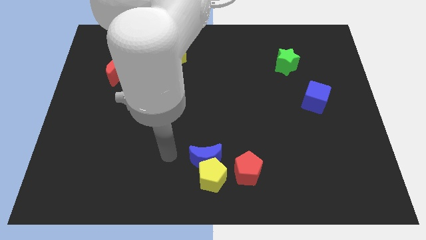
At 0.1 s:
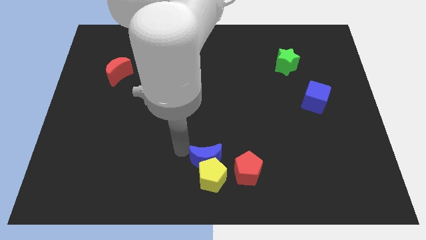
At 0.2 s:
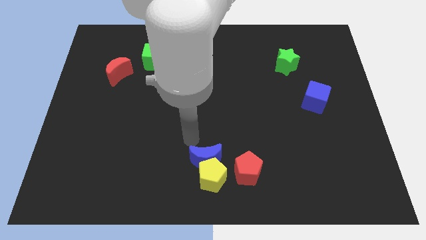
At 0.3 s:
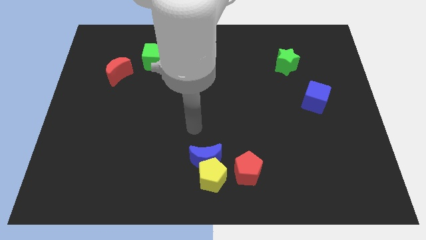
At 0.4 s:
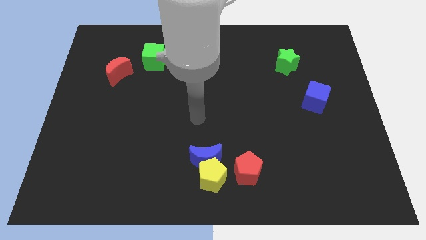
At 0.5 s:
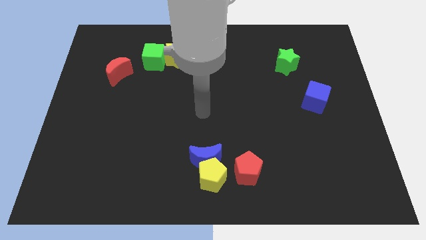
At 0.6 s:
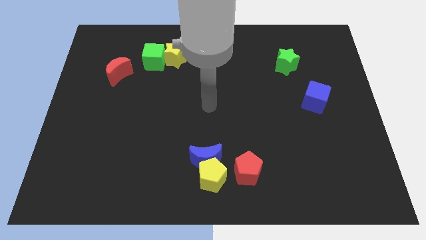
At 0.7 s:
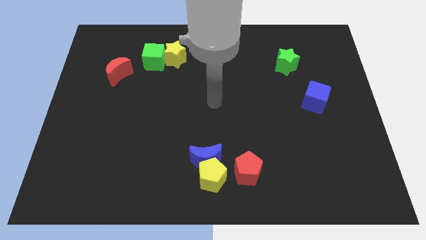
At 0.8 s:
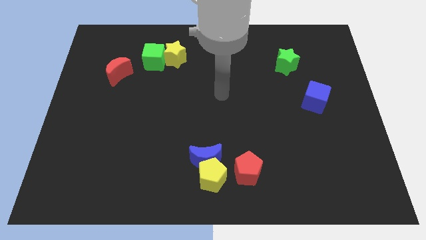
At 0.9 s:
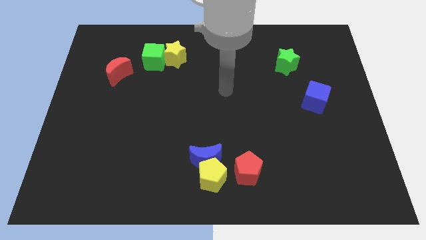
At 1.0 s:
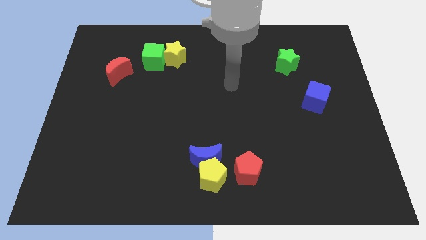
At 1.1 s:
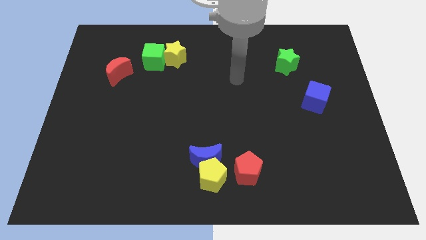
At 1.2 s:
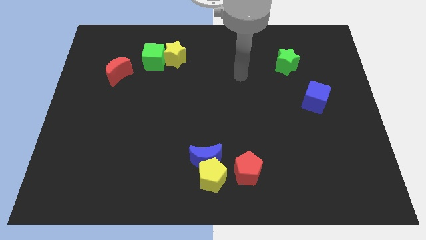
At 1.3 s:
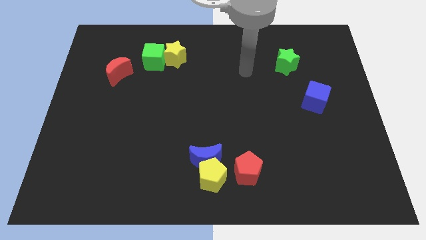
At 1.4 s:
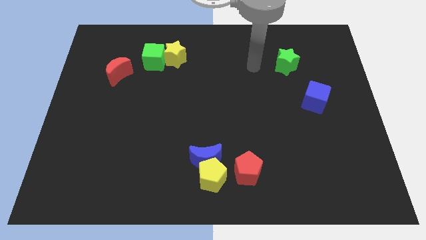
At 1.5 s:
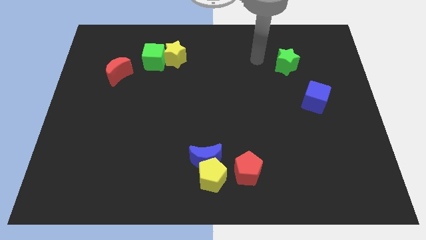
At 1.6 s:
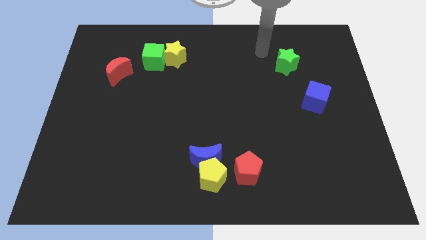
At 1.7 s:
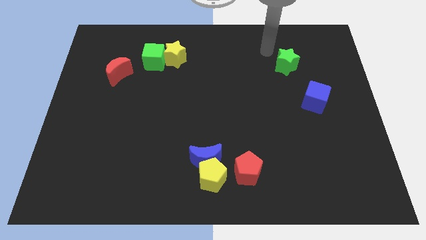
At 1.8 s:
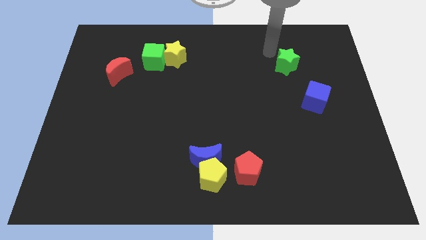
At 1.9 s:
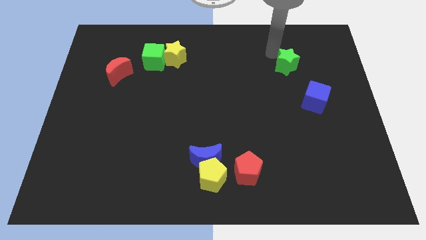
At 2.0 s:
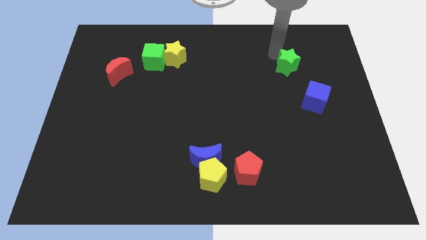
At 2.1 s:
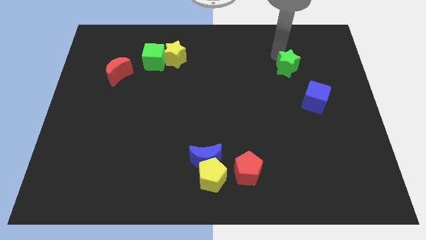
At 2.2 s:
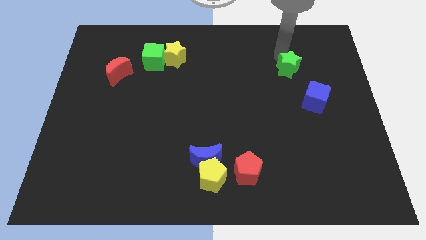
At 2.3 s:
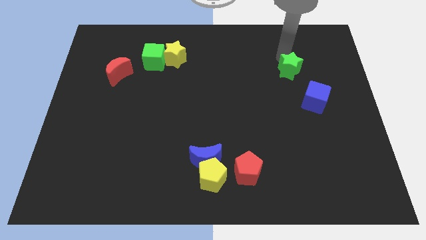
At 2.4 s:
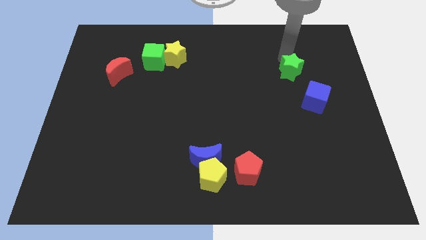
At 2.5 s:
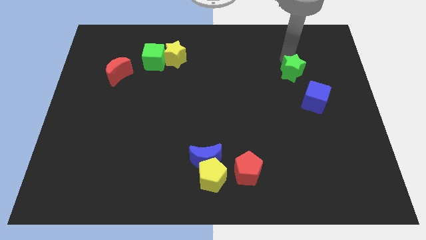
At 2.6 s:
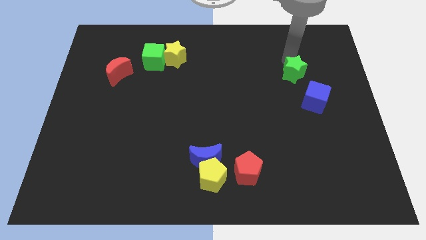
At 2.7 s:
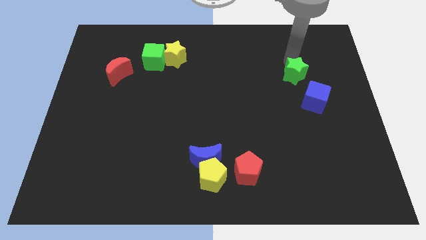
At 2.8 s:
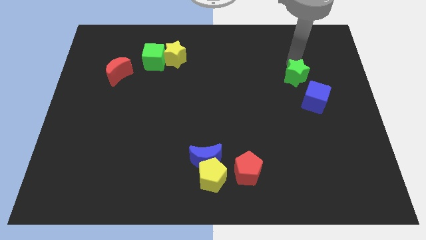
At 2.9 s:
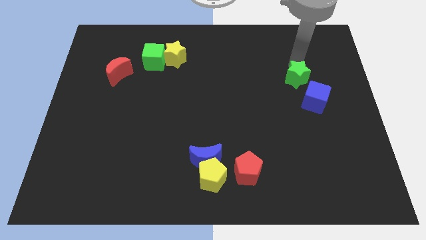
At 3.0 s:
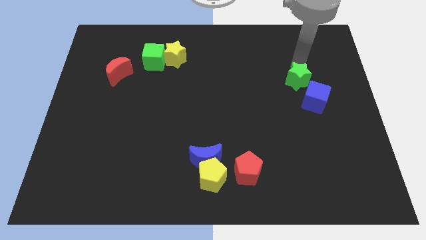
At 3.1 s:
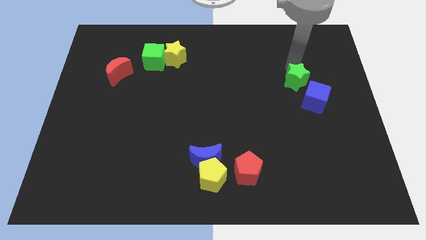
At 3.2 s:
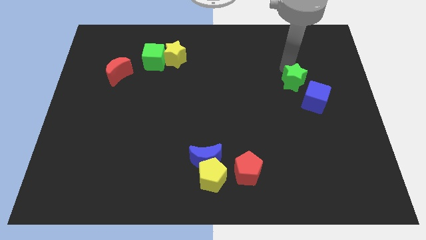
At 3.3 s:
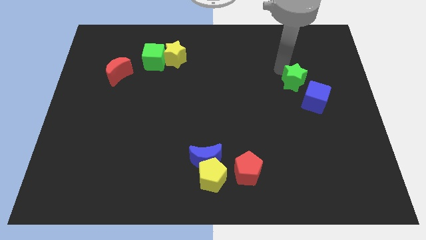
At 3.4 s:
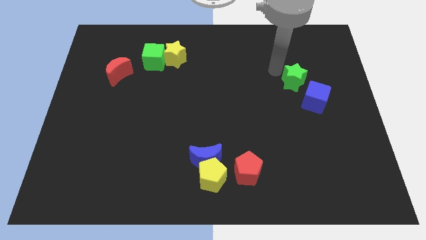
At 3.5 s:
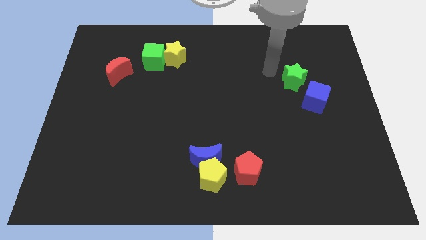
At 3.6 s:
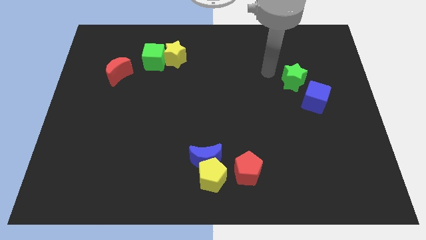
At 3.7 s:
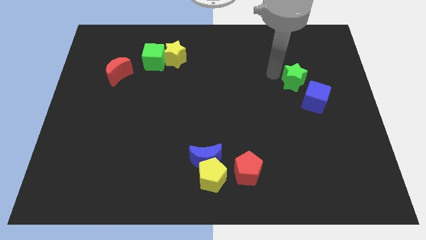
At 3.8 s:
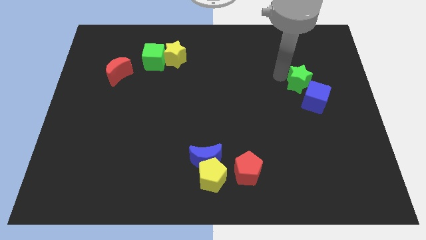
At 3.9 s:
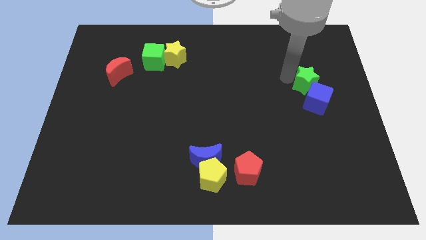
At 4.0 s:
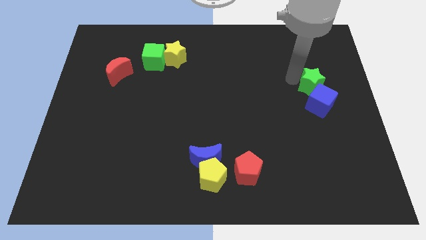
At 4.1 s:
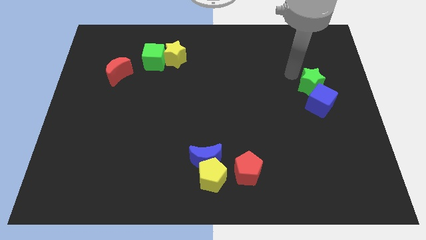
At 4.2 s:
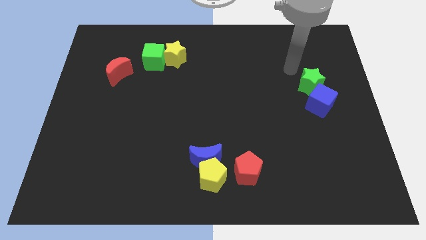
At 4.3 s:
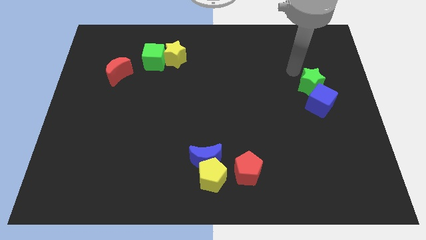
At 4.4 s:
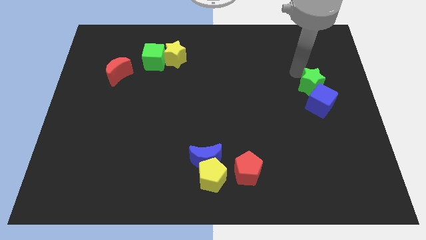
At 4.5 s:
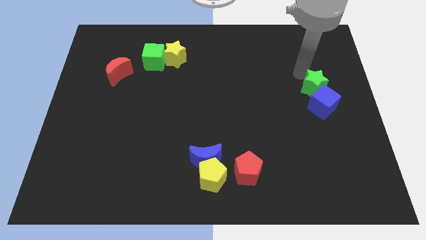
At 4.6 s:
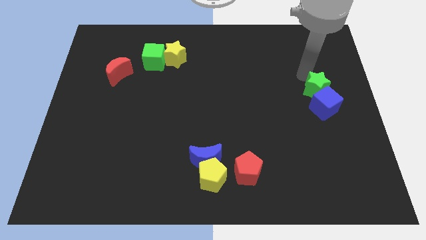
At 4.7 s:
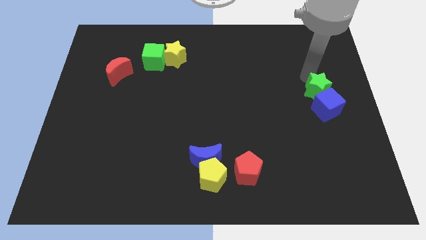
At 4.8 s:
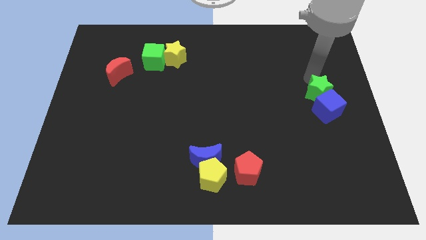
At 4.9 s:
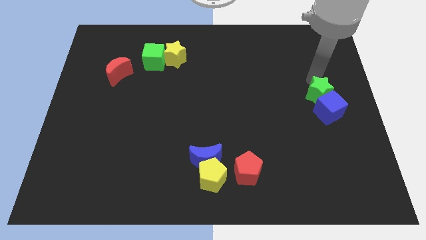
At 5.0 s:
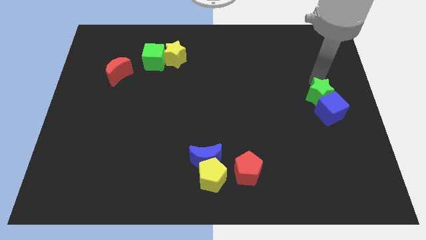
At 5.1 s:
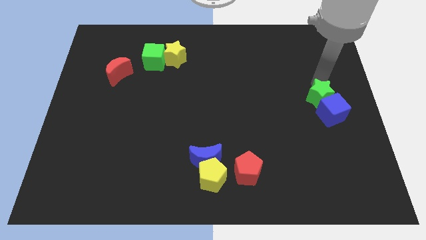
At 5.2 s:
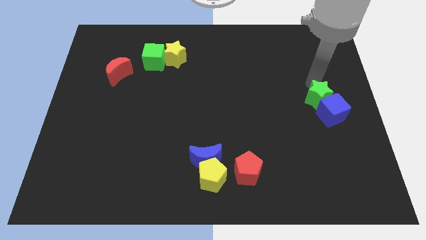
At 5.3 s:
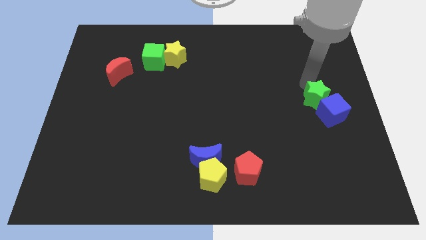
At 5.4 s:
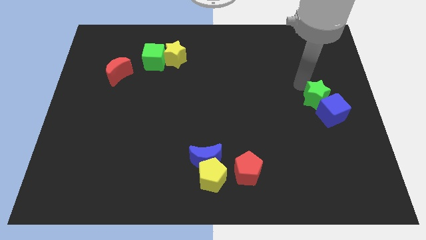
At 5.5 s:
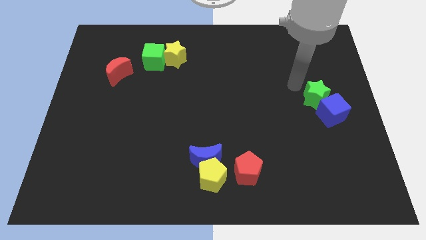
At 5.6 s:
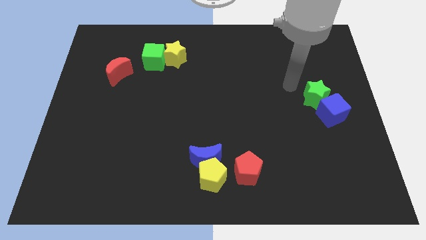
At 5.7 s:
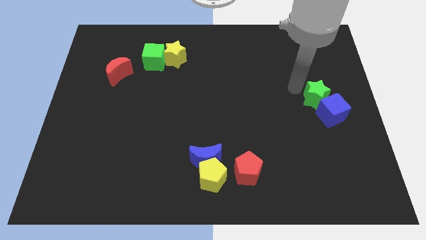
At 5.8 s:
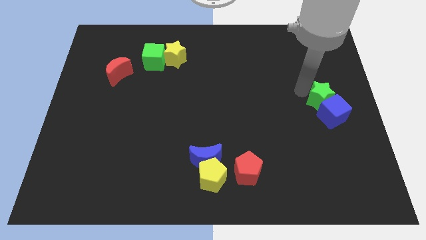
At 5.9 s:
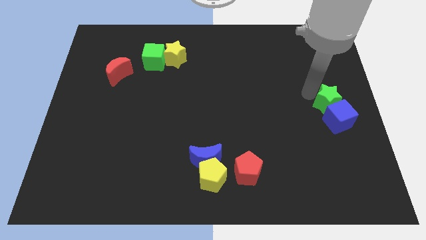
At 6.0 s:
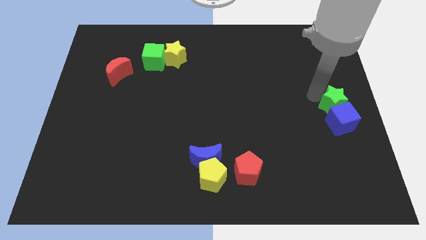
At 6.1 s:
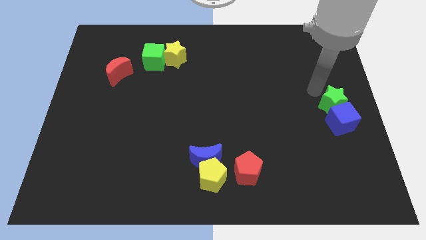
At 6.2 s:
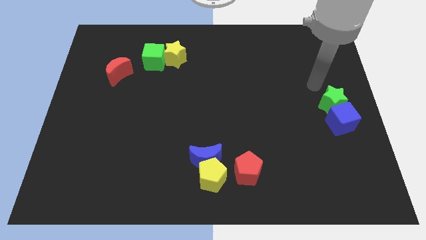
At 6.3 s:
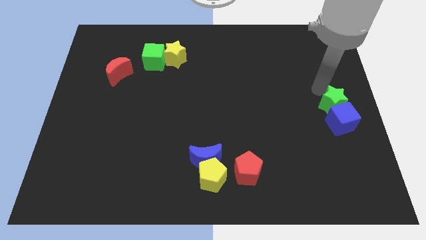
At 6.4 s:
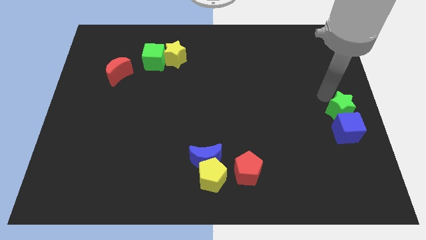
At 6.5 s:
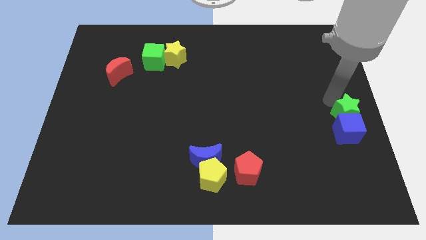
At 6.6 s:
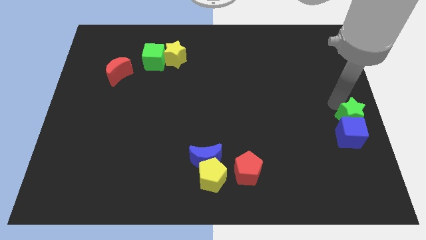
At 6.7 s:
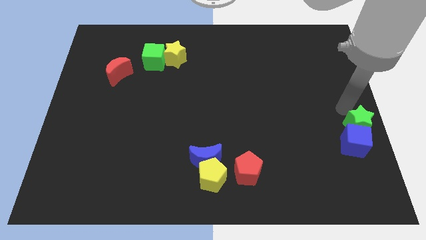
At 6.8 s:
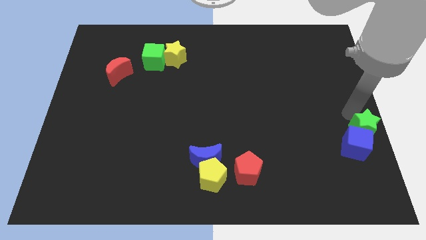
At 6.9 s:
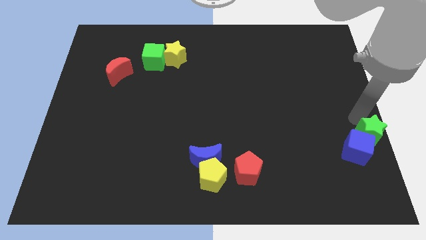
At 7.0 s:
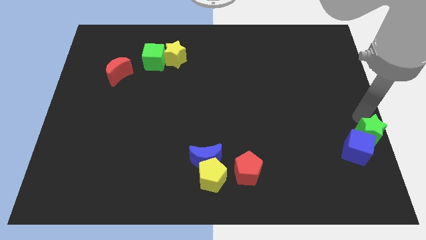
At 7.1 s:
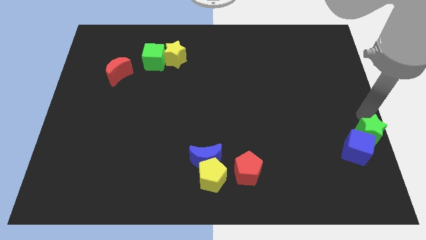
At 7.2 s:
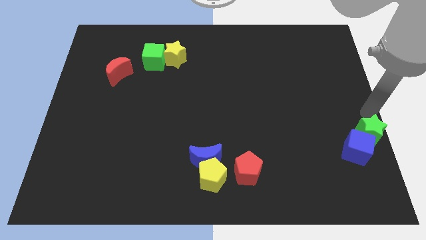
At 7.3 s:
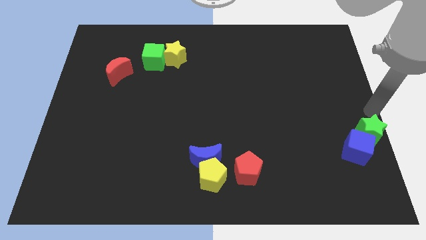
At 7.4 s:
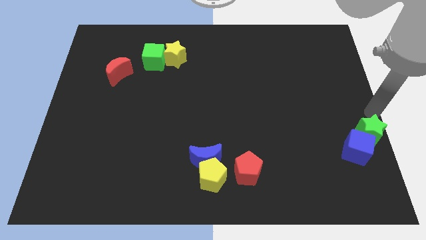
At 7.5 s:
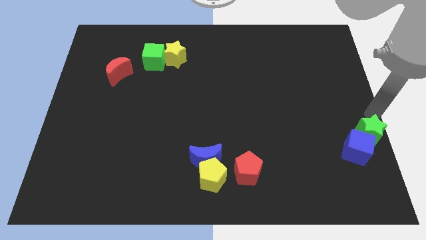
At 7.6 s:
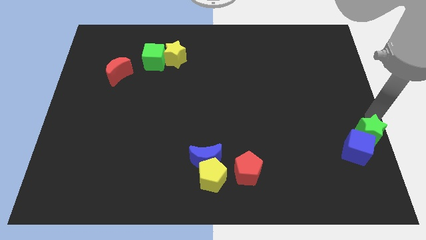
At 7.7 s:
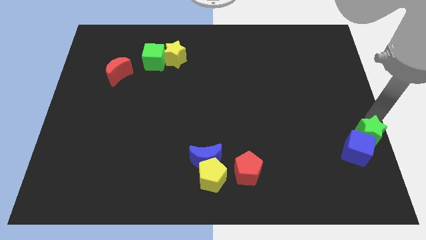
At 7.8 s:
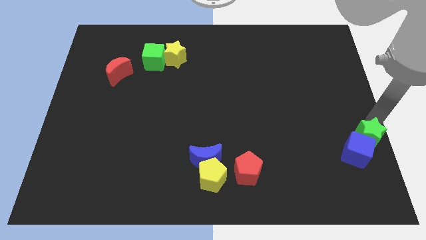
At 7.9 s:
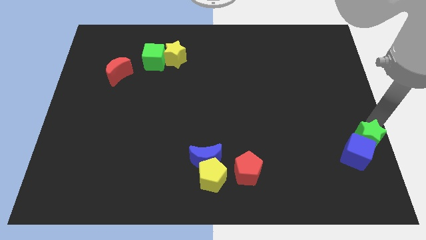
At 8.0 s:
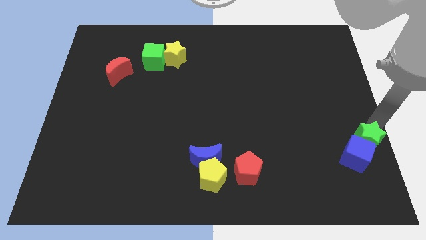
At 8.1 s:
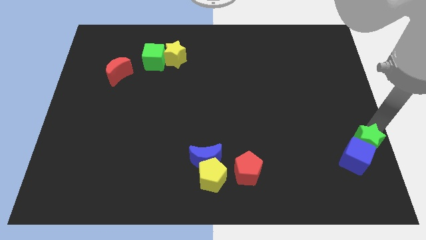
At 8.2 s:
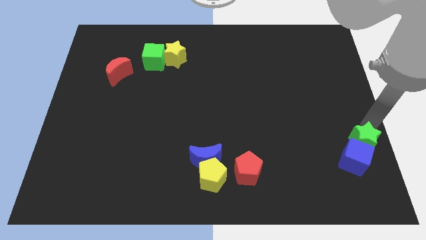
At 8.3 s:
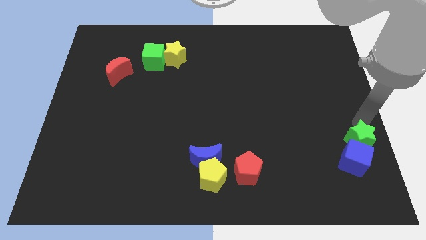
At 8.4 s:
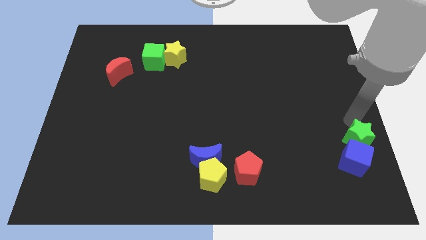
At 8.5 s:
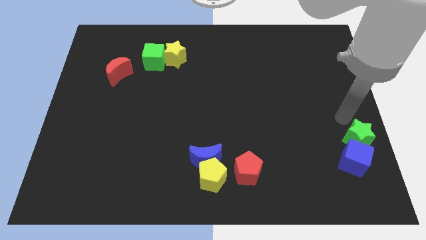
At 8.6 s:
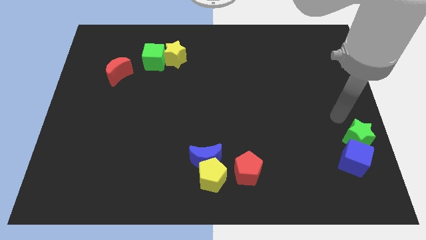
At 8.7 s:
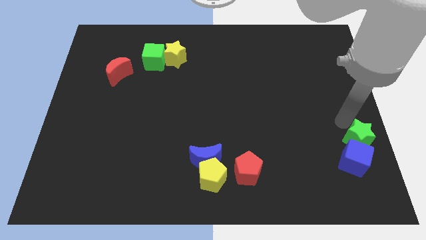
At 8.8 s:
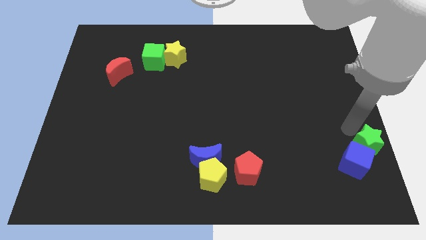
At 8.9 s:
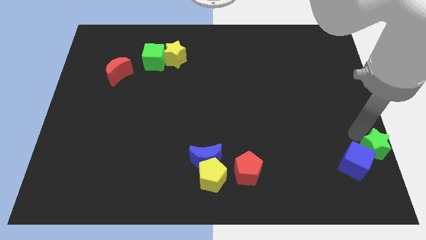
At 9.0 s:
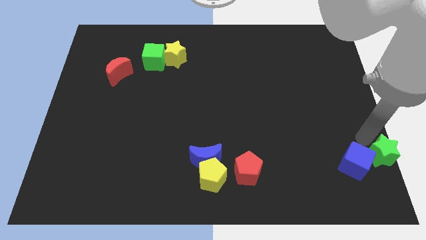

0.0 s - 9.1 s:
push the green star to the bottom right
